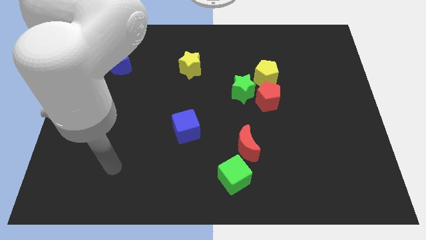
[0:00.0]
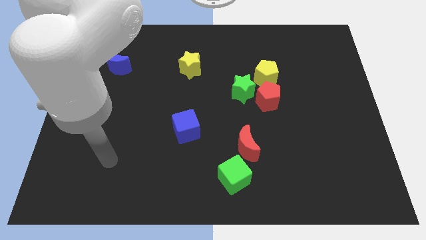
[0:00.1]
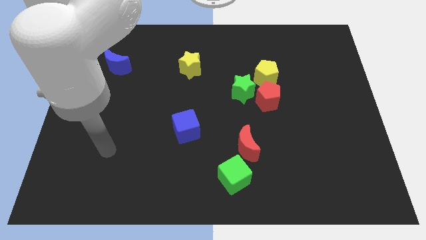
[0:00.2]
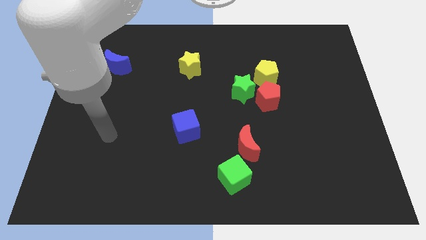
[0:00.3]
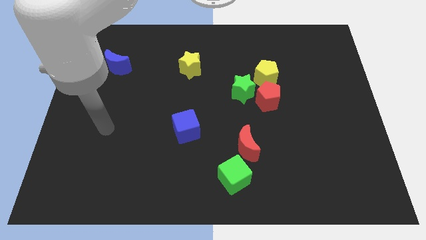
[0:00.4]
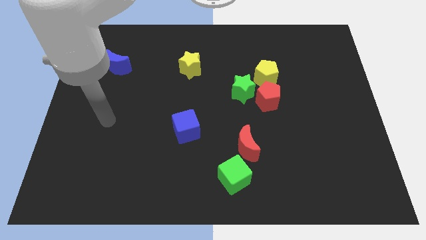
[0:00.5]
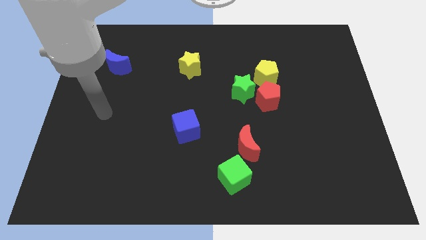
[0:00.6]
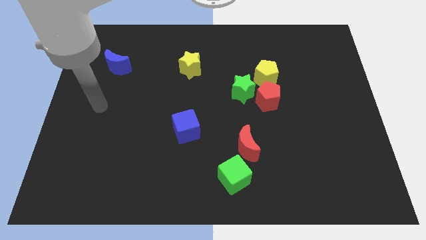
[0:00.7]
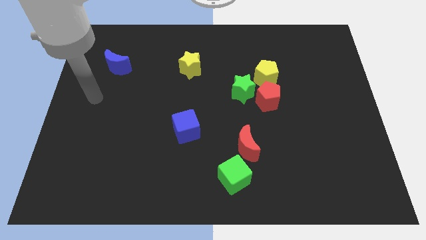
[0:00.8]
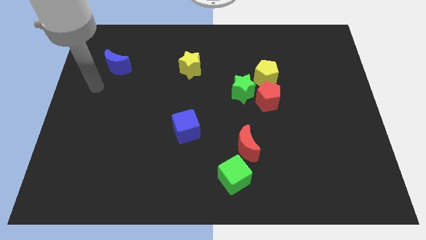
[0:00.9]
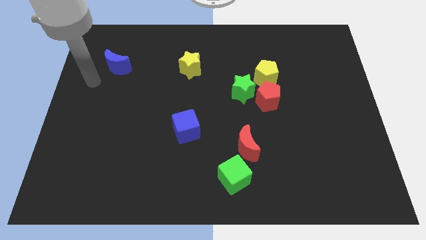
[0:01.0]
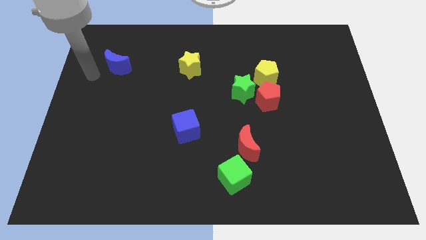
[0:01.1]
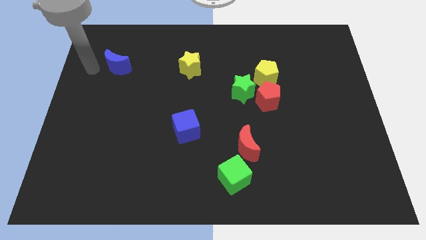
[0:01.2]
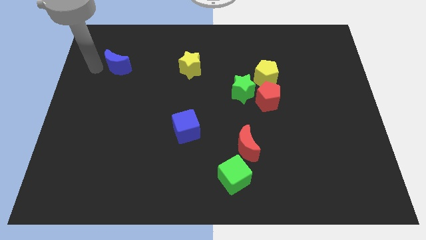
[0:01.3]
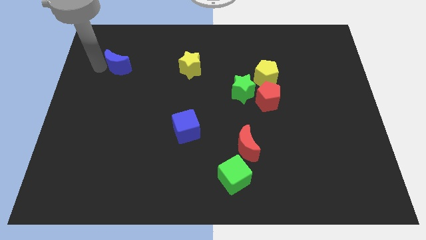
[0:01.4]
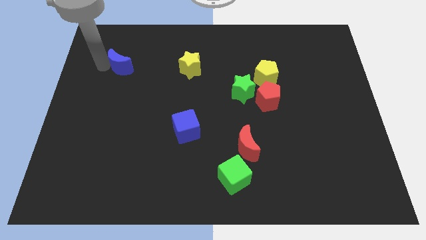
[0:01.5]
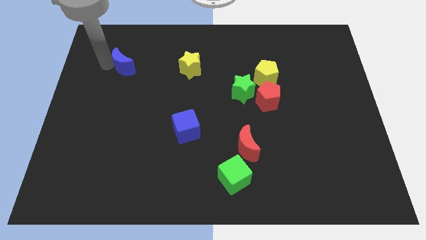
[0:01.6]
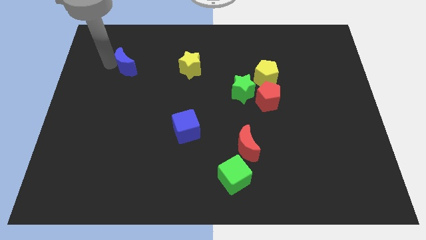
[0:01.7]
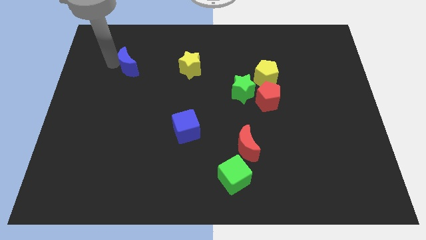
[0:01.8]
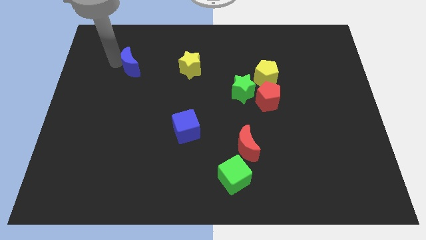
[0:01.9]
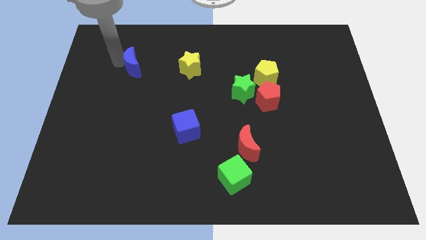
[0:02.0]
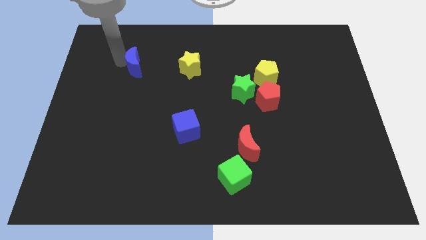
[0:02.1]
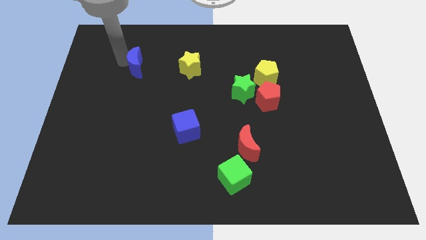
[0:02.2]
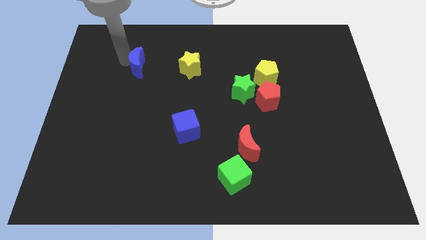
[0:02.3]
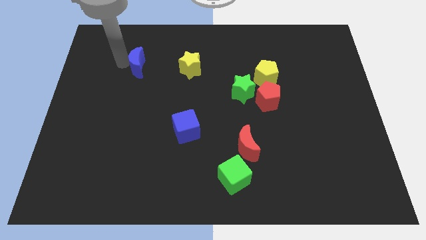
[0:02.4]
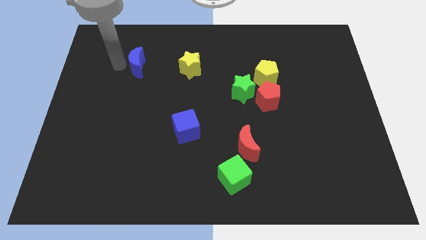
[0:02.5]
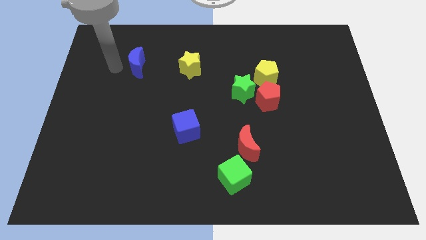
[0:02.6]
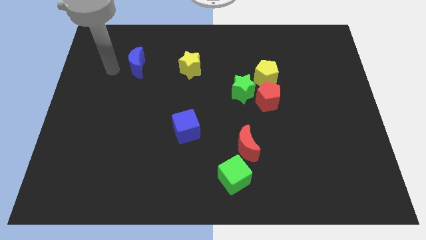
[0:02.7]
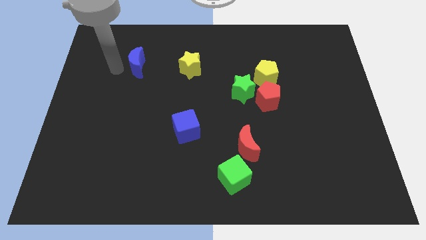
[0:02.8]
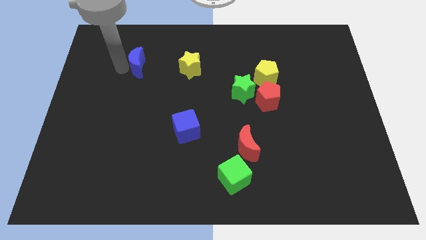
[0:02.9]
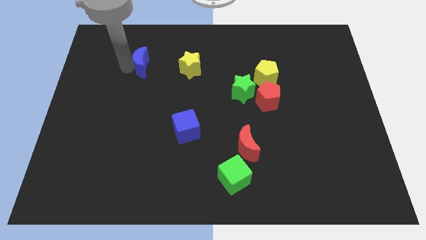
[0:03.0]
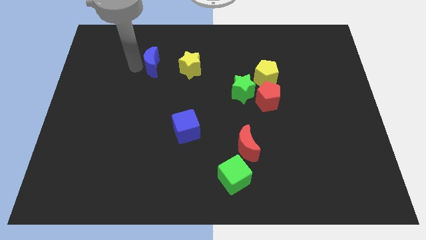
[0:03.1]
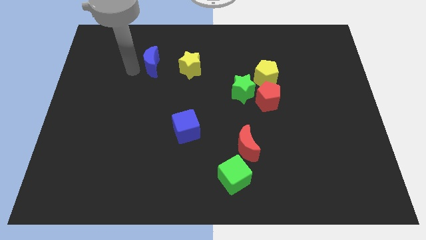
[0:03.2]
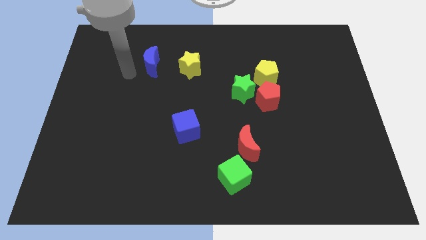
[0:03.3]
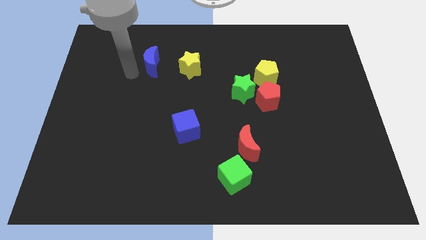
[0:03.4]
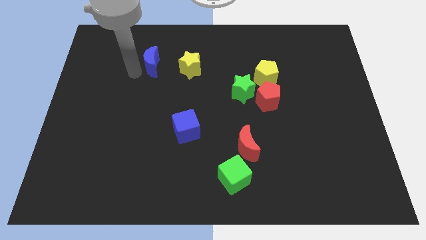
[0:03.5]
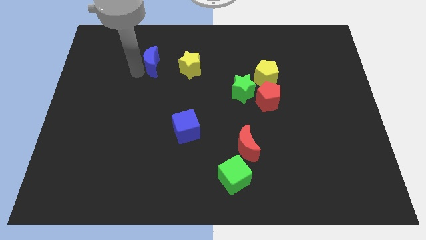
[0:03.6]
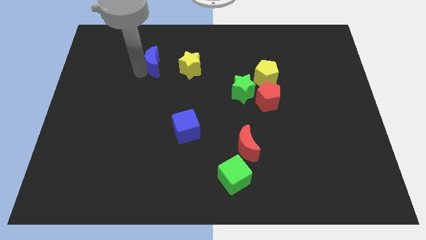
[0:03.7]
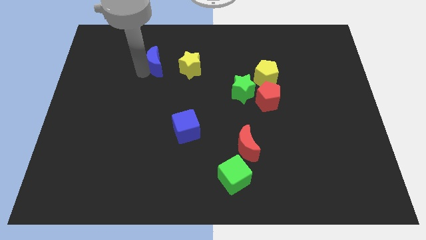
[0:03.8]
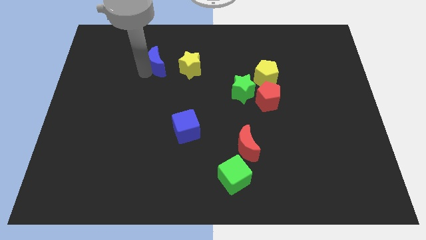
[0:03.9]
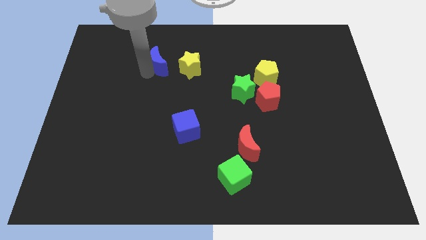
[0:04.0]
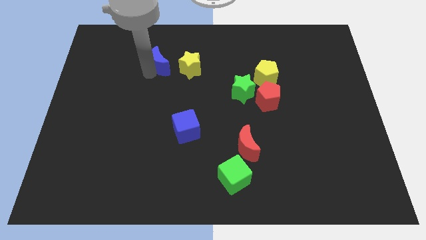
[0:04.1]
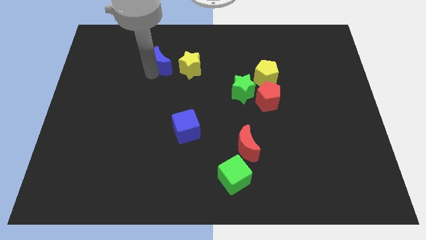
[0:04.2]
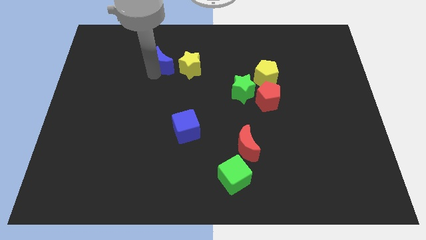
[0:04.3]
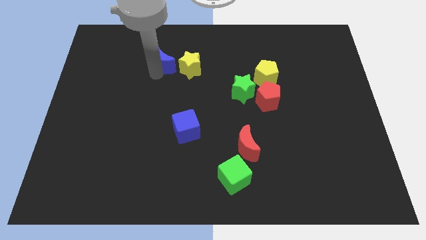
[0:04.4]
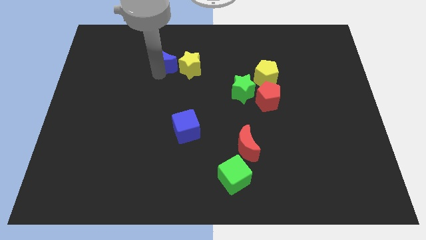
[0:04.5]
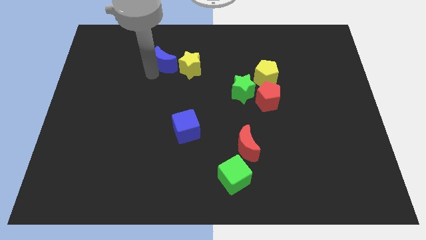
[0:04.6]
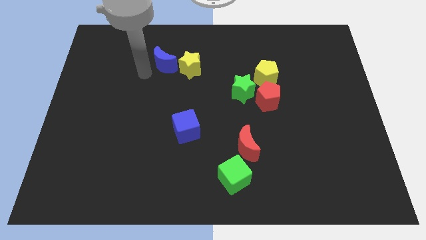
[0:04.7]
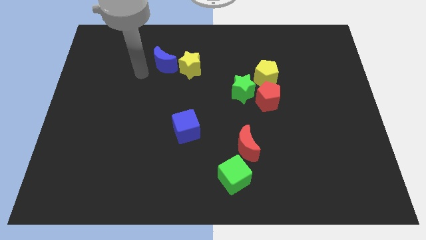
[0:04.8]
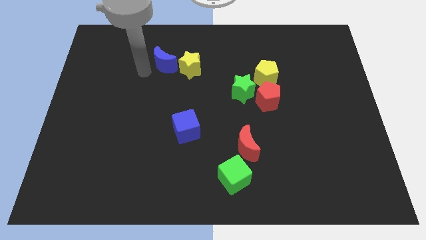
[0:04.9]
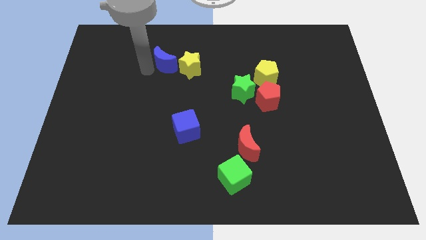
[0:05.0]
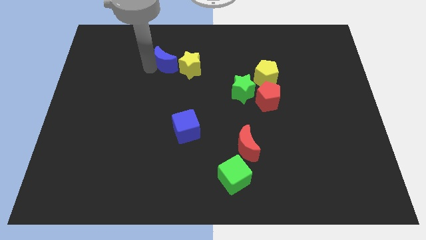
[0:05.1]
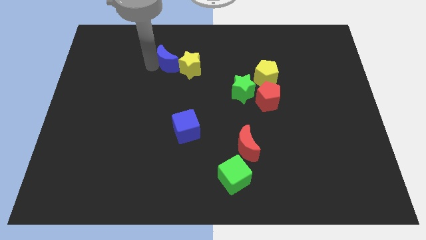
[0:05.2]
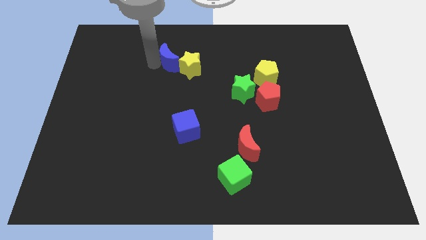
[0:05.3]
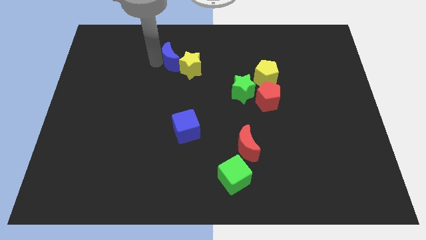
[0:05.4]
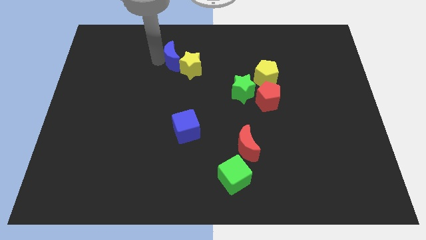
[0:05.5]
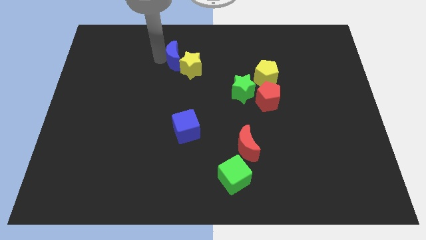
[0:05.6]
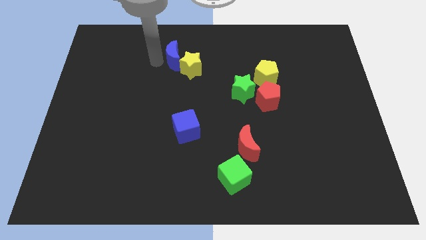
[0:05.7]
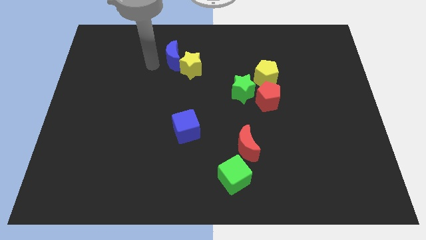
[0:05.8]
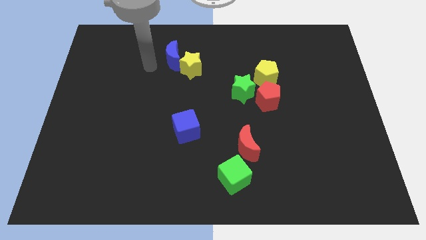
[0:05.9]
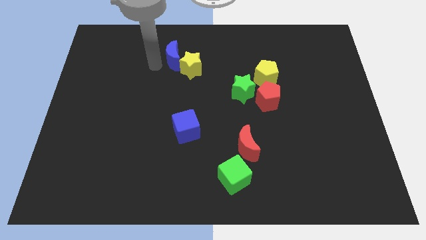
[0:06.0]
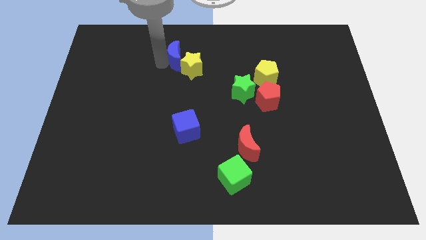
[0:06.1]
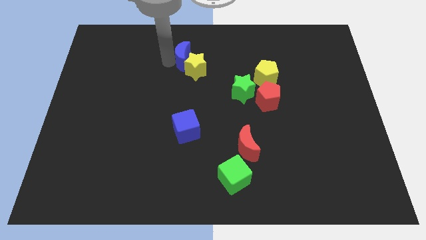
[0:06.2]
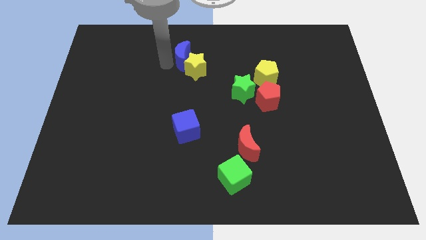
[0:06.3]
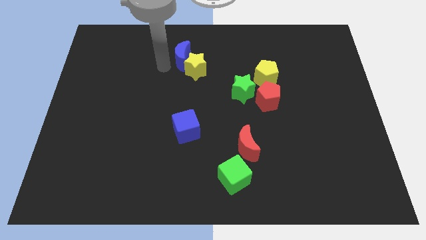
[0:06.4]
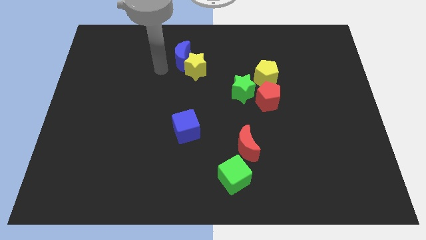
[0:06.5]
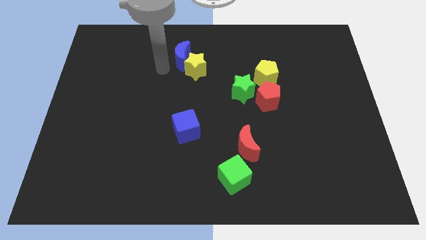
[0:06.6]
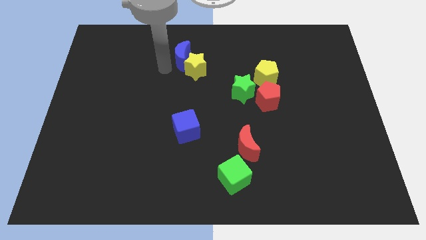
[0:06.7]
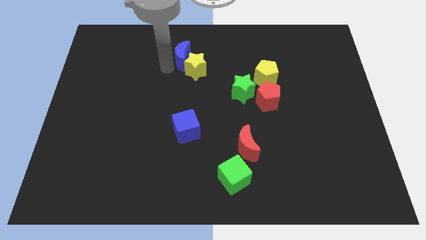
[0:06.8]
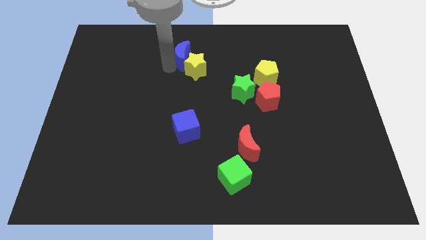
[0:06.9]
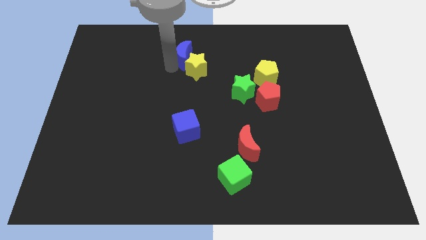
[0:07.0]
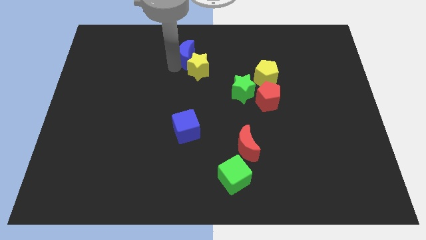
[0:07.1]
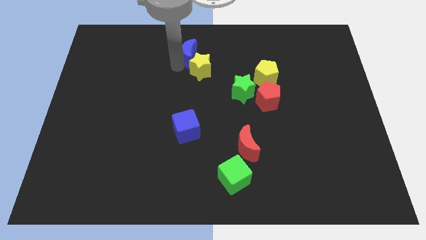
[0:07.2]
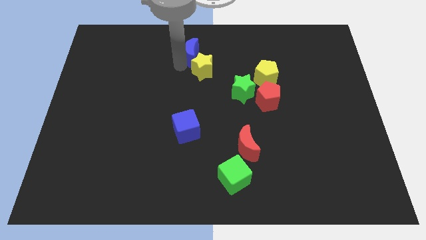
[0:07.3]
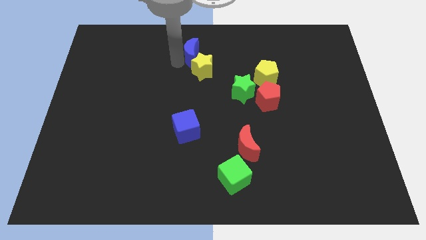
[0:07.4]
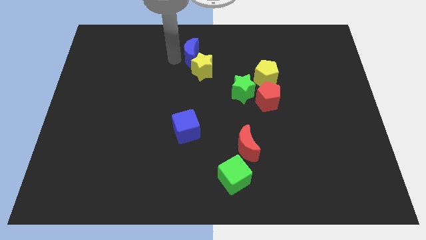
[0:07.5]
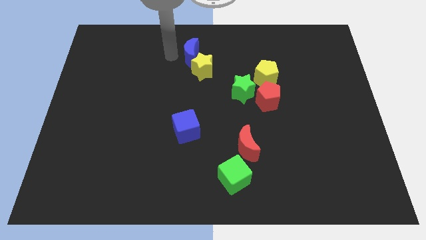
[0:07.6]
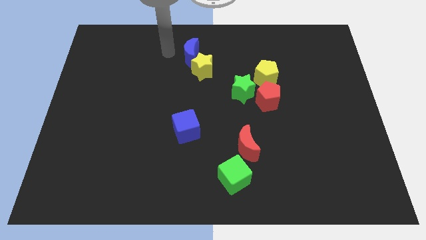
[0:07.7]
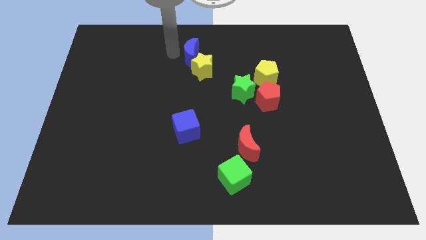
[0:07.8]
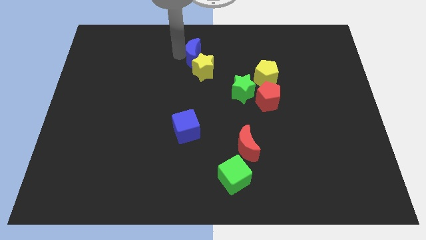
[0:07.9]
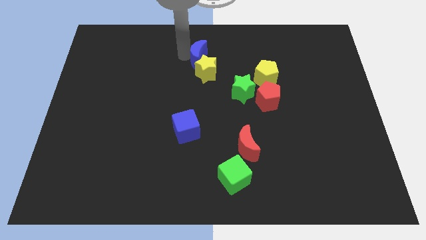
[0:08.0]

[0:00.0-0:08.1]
slide the blue moon to the right
